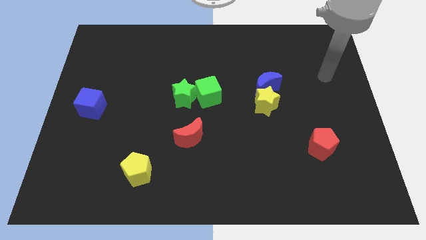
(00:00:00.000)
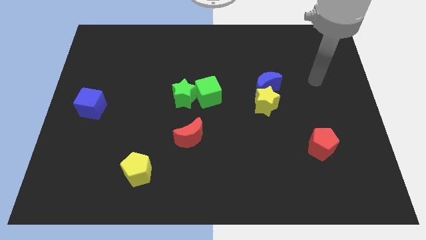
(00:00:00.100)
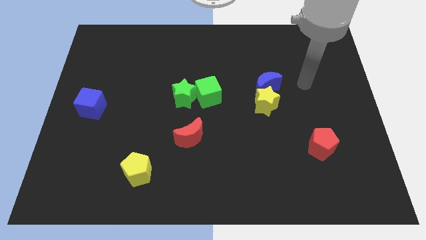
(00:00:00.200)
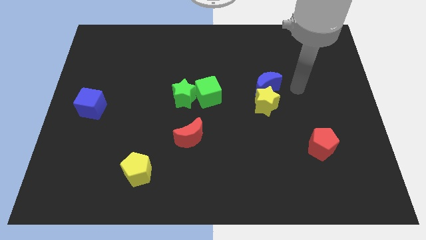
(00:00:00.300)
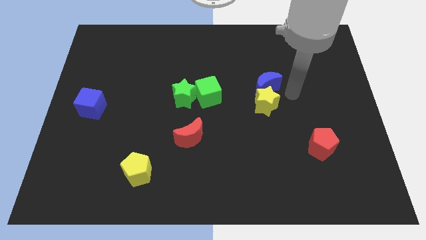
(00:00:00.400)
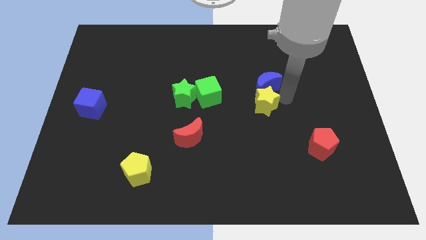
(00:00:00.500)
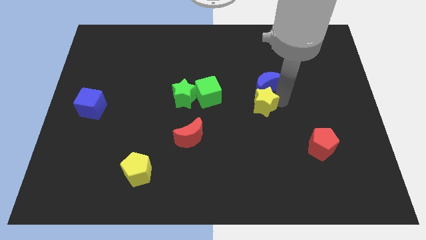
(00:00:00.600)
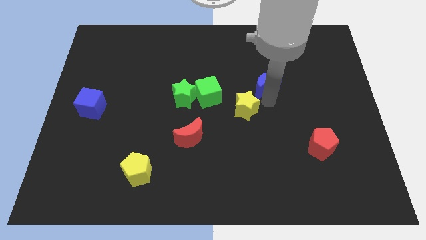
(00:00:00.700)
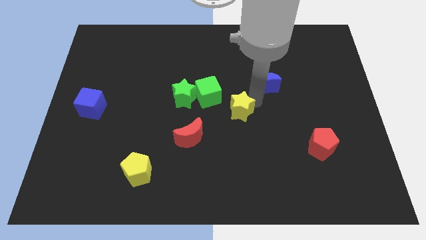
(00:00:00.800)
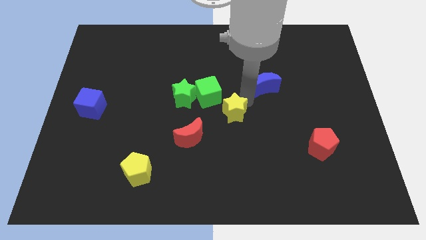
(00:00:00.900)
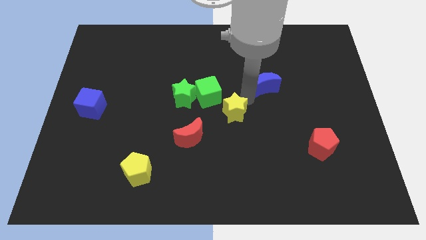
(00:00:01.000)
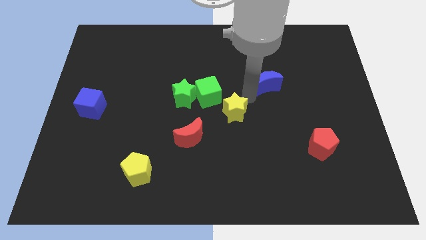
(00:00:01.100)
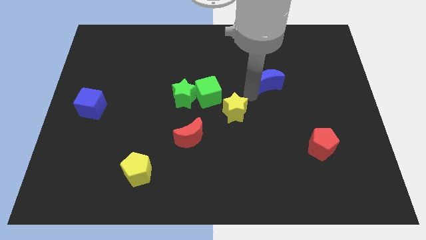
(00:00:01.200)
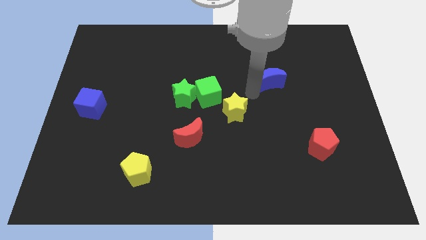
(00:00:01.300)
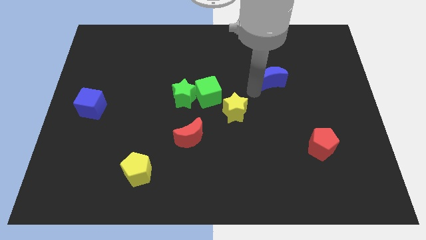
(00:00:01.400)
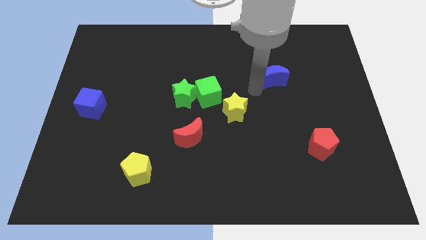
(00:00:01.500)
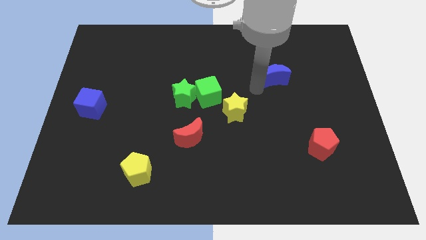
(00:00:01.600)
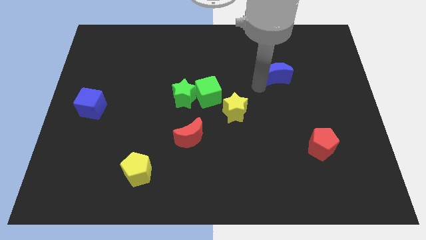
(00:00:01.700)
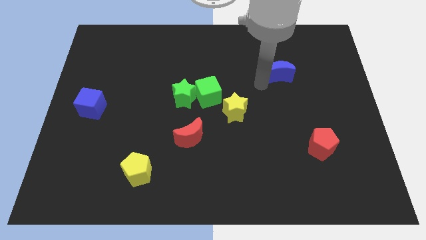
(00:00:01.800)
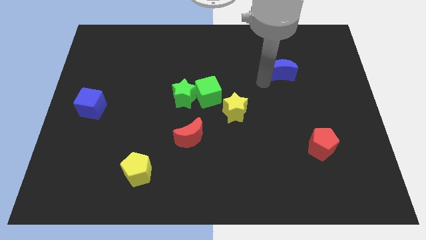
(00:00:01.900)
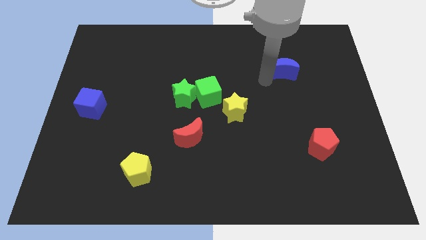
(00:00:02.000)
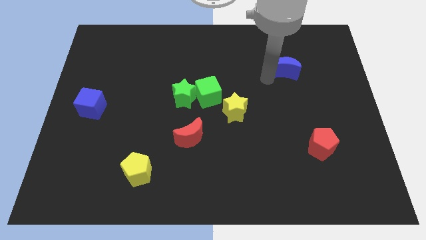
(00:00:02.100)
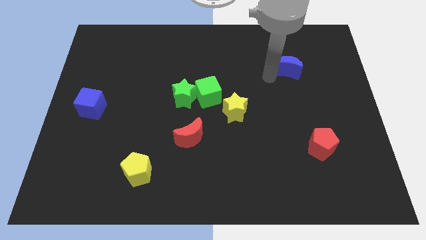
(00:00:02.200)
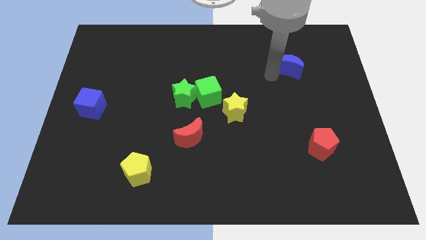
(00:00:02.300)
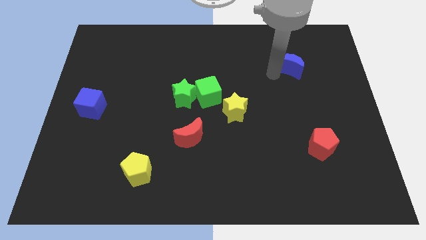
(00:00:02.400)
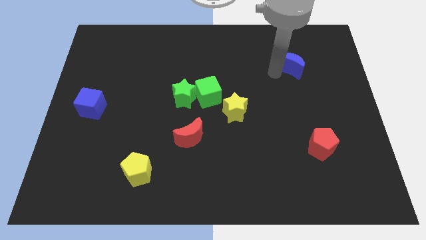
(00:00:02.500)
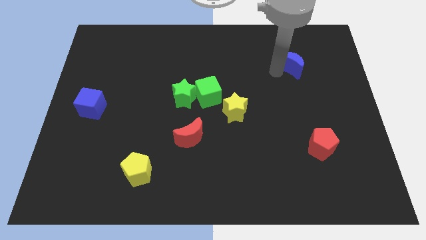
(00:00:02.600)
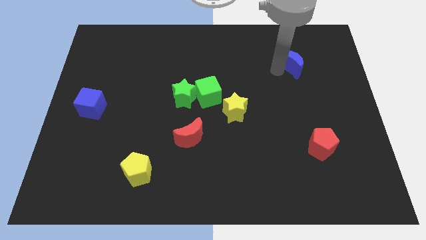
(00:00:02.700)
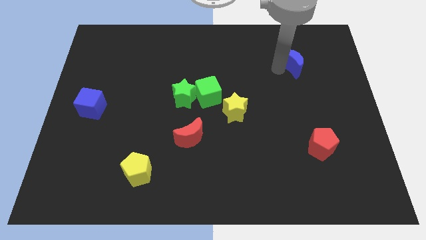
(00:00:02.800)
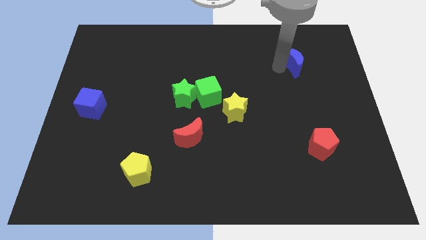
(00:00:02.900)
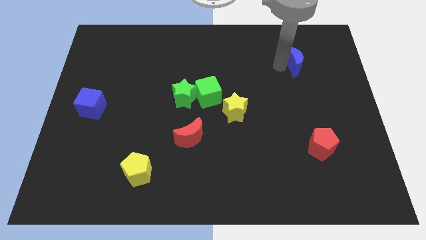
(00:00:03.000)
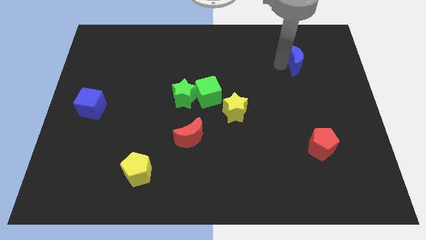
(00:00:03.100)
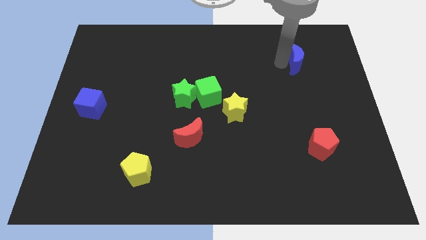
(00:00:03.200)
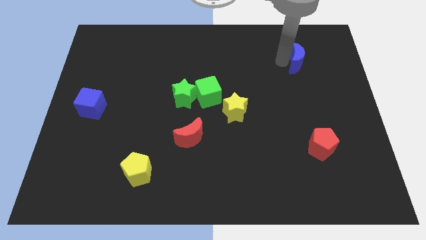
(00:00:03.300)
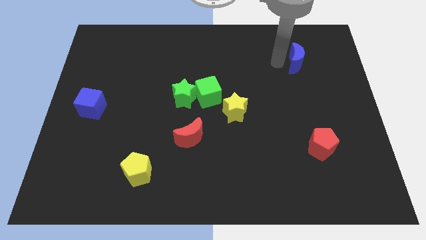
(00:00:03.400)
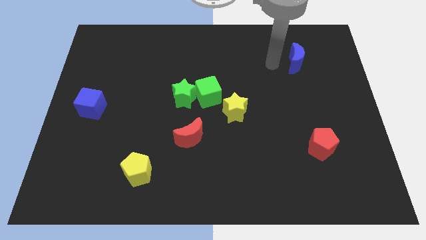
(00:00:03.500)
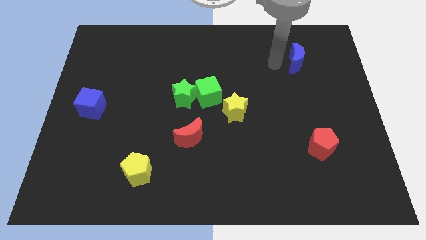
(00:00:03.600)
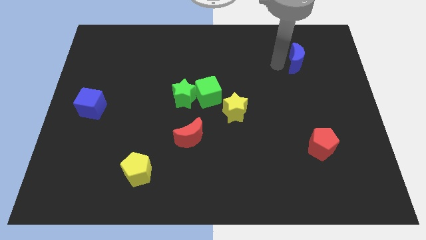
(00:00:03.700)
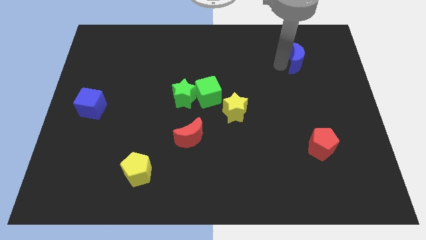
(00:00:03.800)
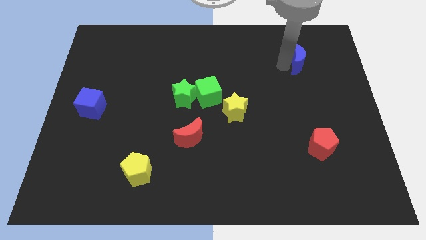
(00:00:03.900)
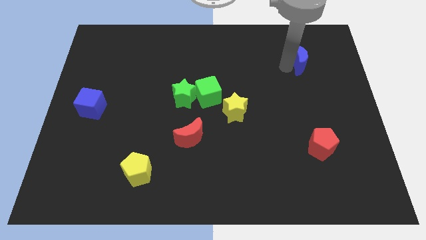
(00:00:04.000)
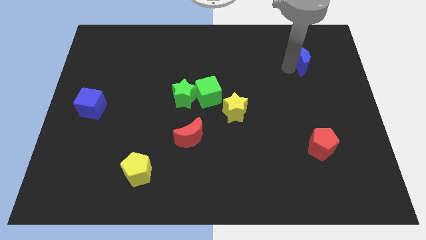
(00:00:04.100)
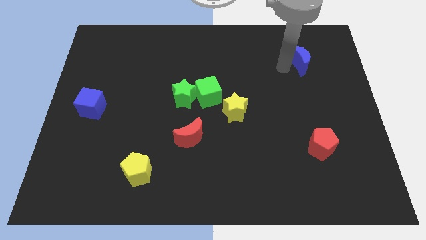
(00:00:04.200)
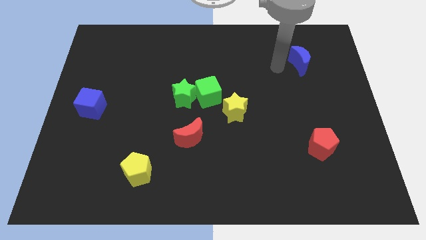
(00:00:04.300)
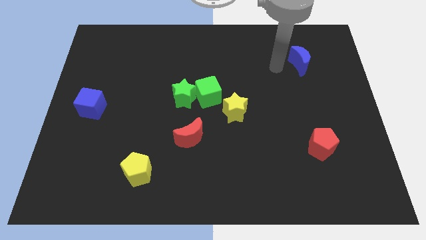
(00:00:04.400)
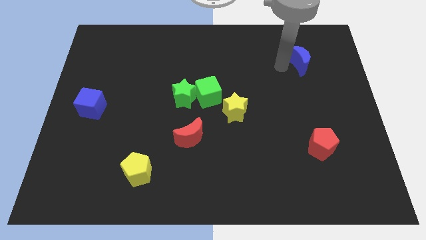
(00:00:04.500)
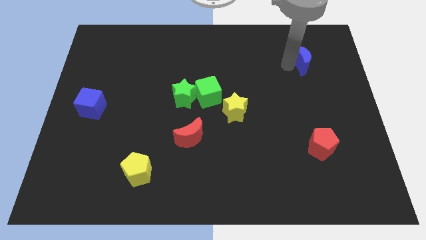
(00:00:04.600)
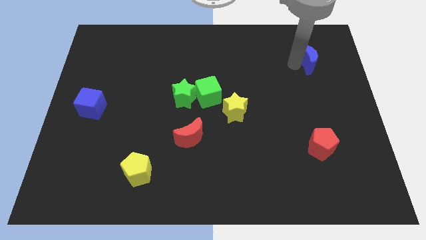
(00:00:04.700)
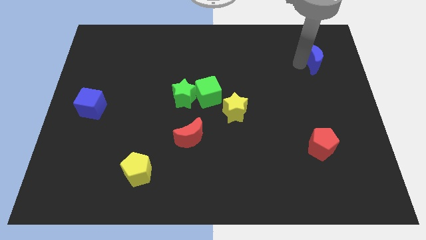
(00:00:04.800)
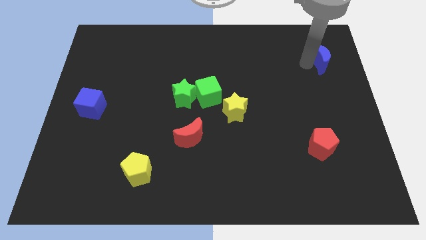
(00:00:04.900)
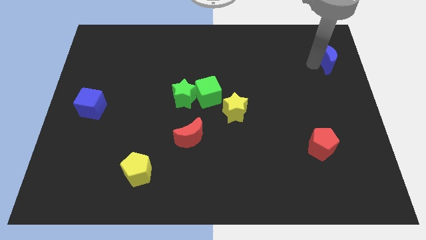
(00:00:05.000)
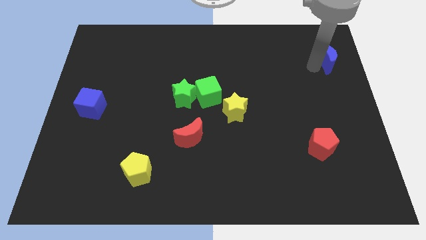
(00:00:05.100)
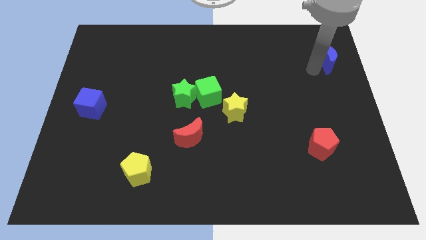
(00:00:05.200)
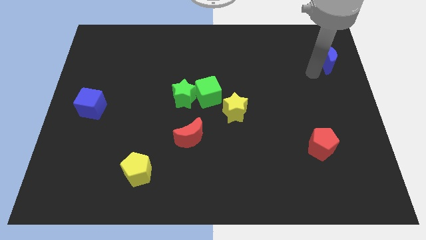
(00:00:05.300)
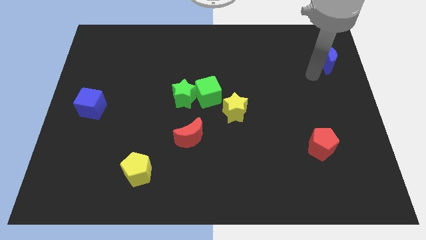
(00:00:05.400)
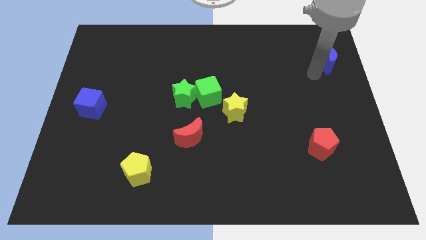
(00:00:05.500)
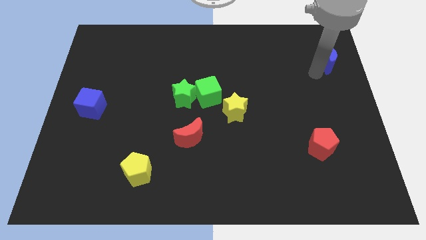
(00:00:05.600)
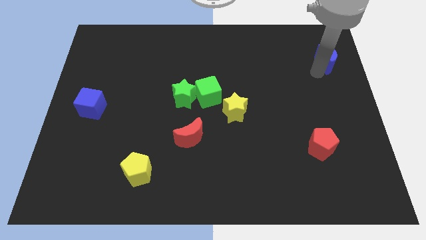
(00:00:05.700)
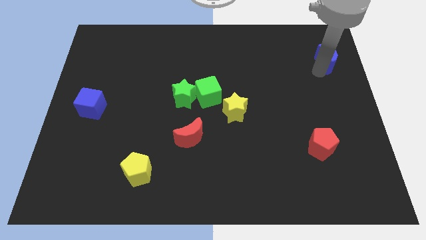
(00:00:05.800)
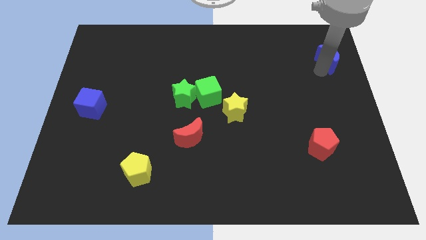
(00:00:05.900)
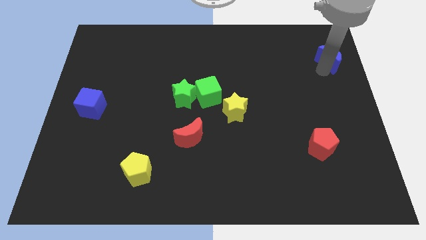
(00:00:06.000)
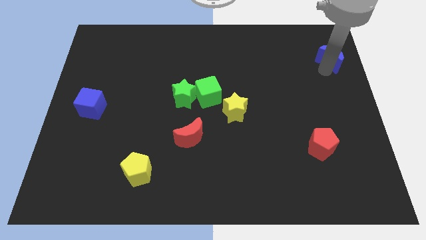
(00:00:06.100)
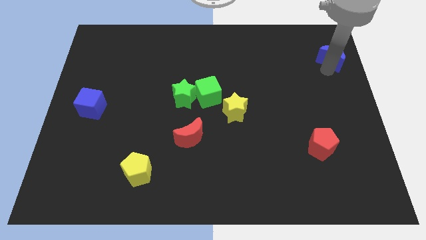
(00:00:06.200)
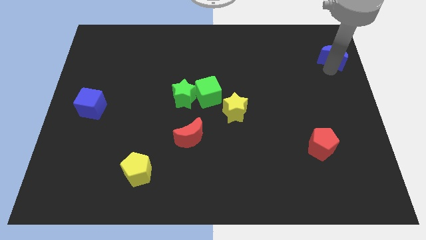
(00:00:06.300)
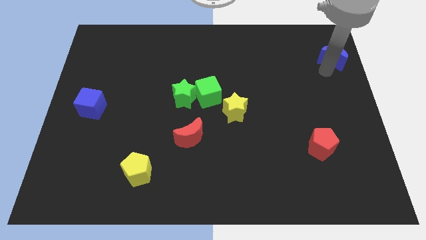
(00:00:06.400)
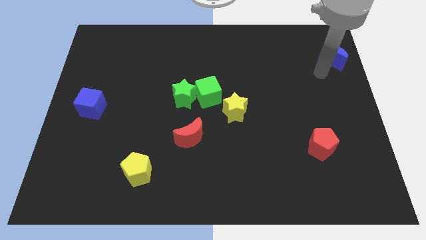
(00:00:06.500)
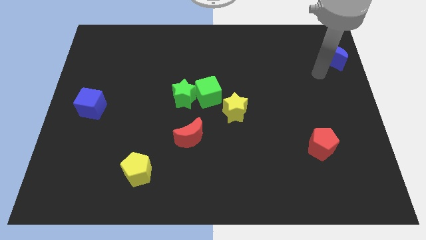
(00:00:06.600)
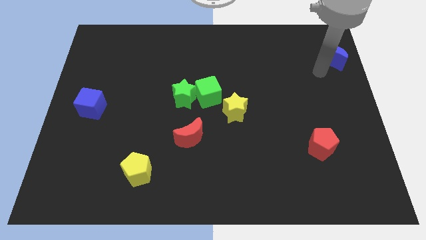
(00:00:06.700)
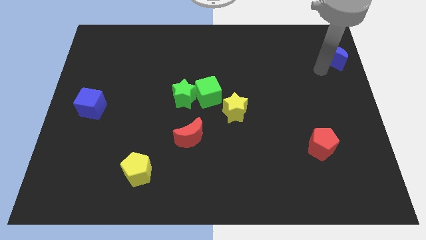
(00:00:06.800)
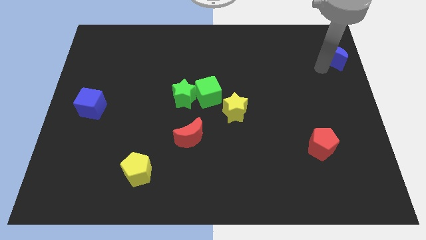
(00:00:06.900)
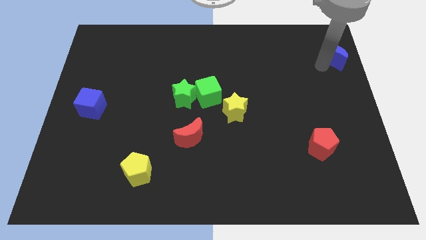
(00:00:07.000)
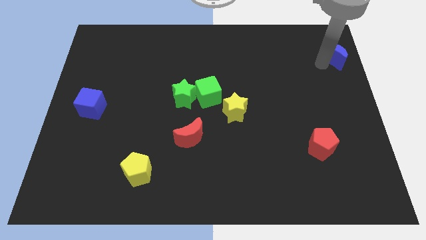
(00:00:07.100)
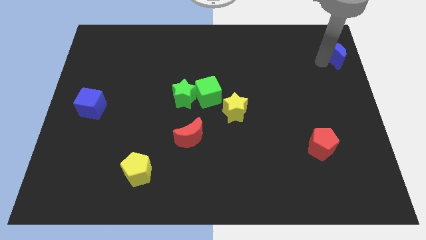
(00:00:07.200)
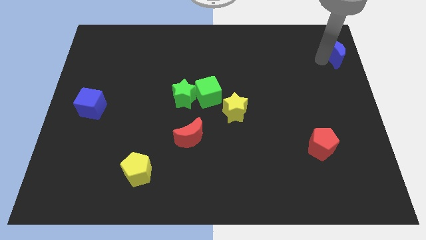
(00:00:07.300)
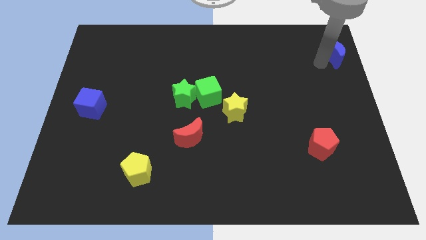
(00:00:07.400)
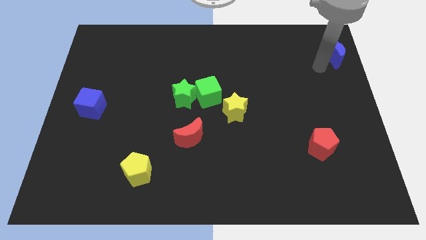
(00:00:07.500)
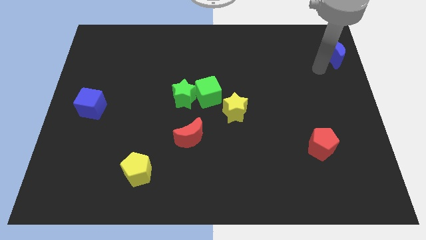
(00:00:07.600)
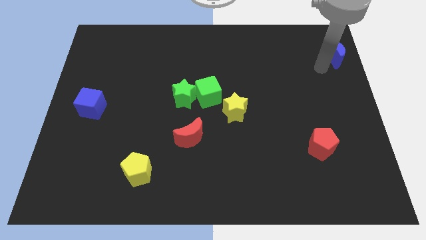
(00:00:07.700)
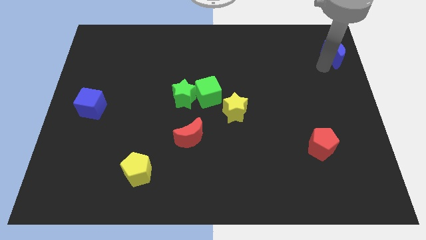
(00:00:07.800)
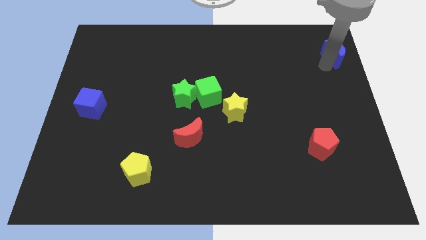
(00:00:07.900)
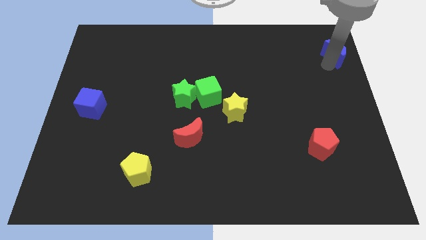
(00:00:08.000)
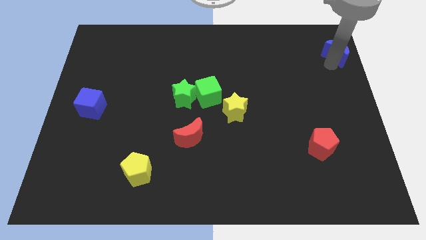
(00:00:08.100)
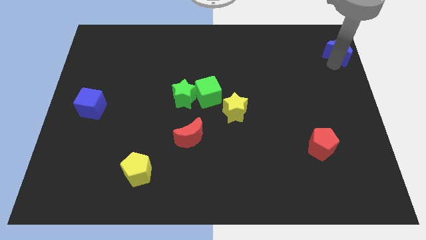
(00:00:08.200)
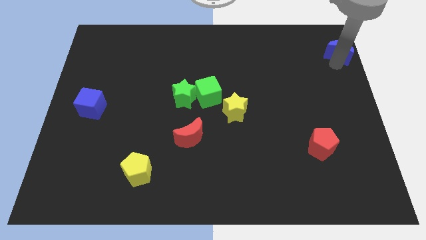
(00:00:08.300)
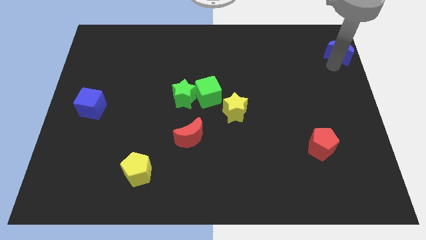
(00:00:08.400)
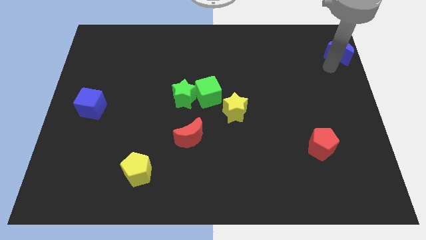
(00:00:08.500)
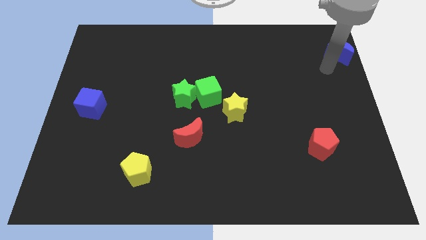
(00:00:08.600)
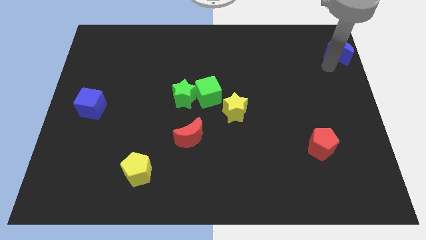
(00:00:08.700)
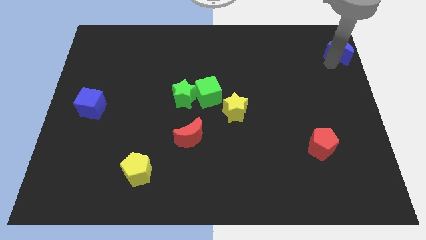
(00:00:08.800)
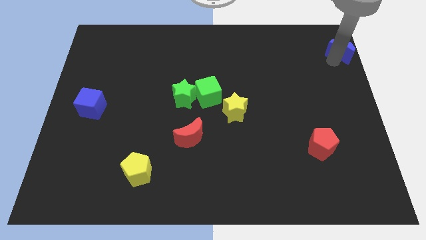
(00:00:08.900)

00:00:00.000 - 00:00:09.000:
push the blue moon to the top right of the board
